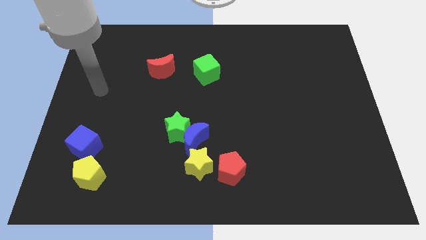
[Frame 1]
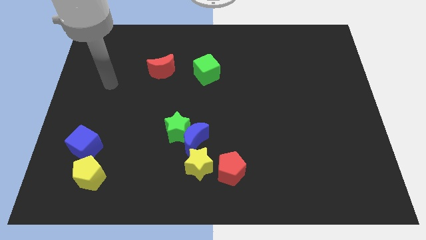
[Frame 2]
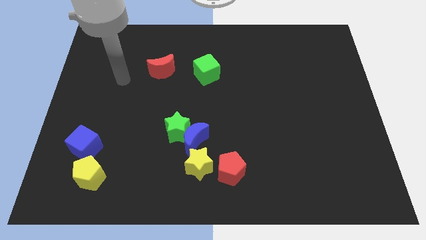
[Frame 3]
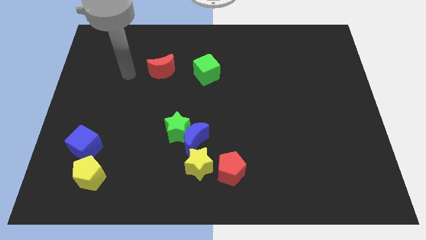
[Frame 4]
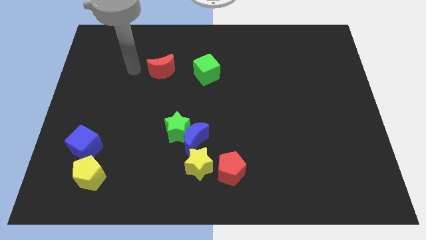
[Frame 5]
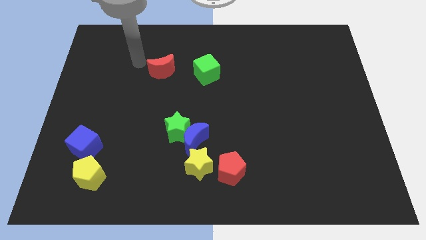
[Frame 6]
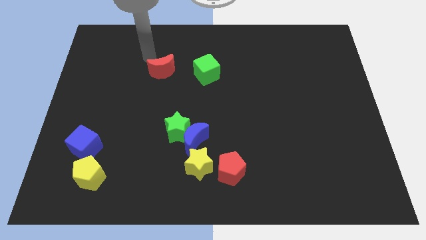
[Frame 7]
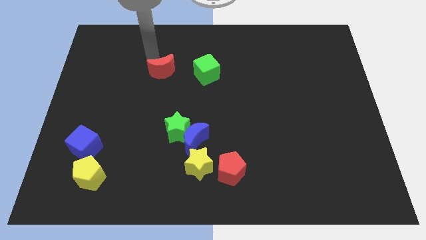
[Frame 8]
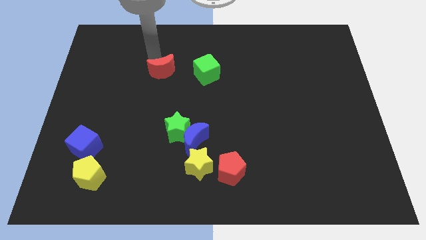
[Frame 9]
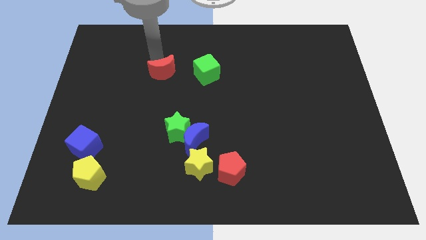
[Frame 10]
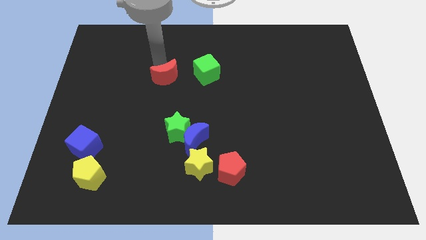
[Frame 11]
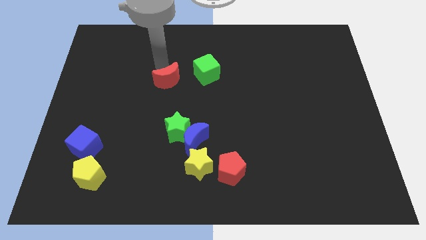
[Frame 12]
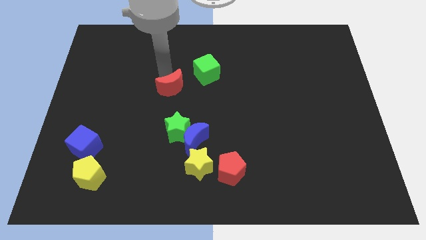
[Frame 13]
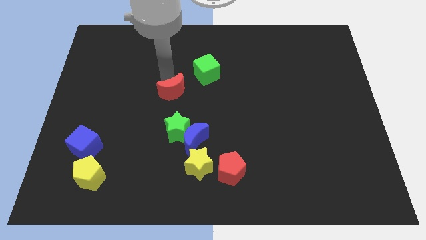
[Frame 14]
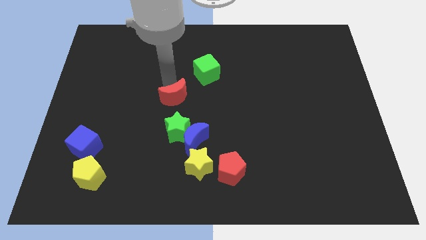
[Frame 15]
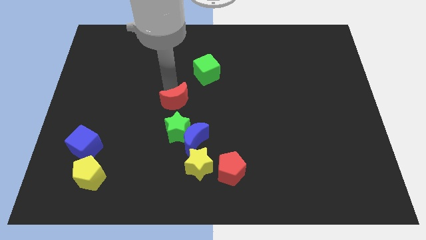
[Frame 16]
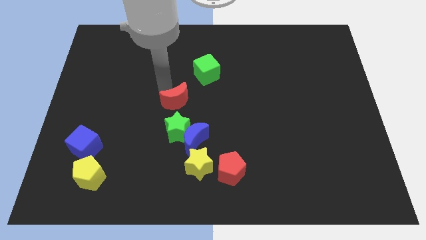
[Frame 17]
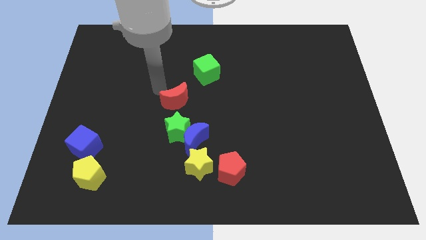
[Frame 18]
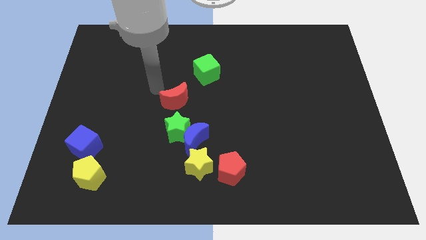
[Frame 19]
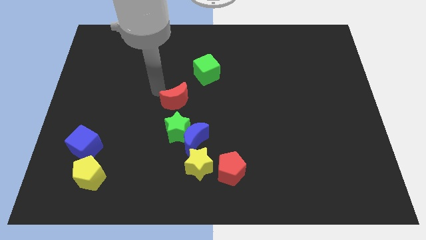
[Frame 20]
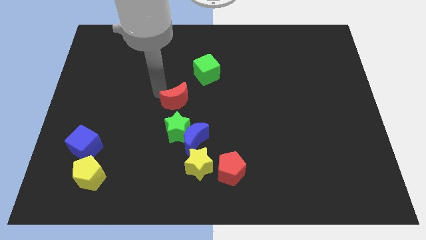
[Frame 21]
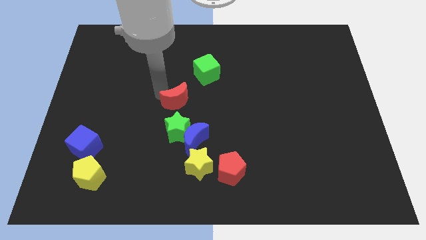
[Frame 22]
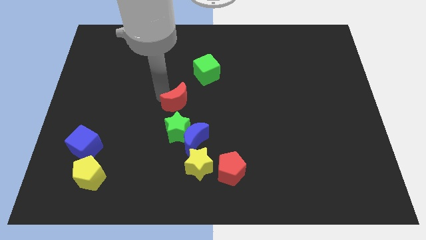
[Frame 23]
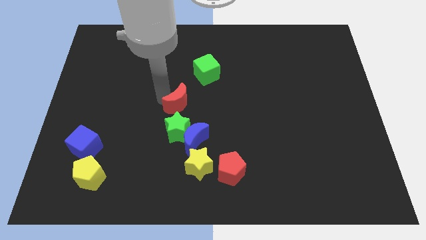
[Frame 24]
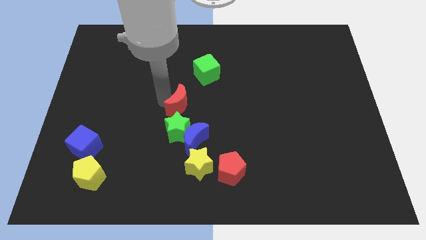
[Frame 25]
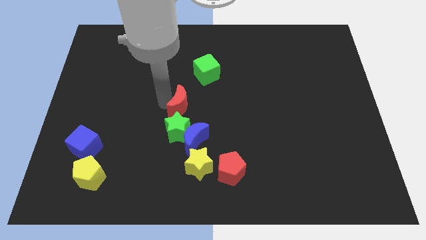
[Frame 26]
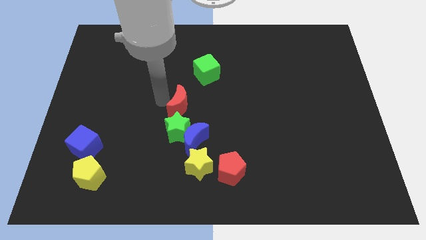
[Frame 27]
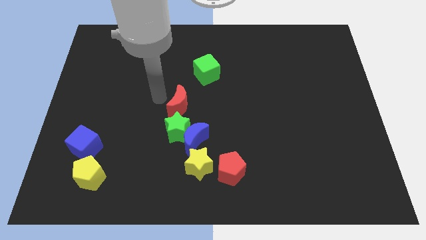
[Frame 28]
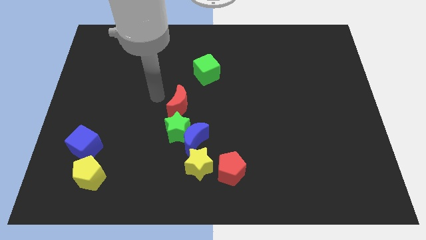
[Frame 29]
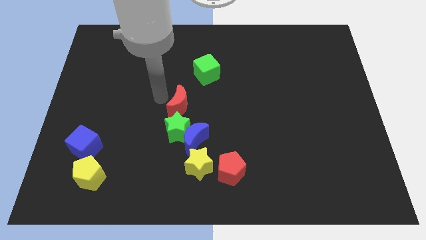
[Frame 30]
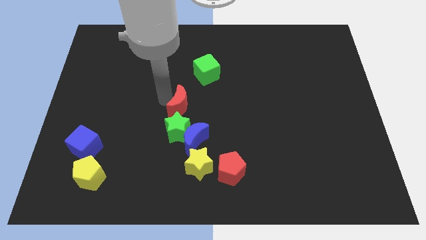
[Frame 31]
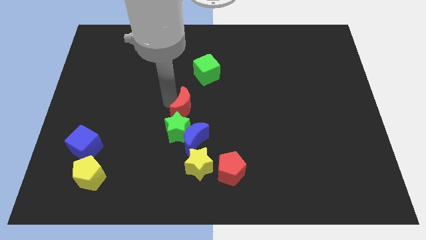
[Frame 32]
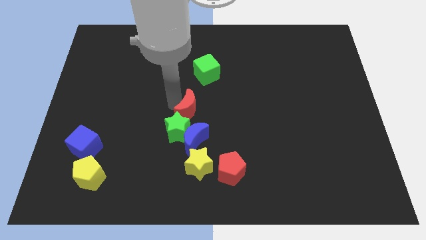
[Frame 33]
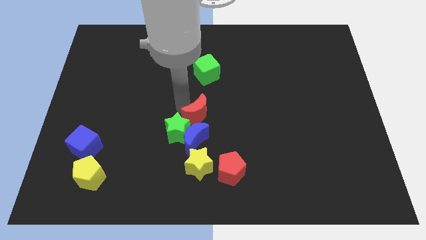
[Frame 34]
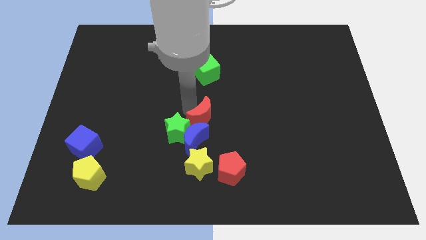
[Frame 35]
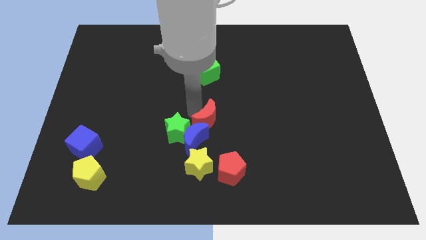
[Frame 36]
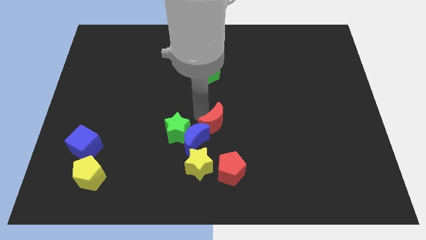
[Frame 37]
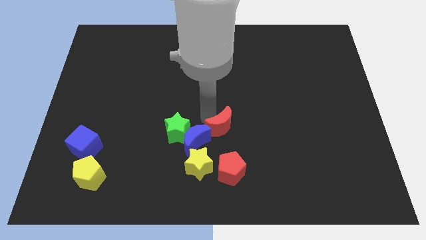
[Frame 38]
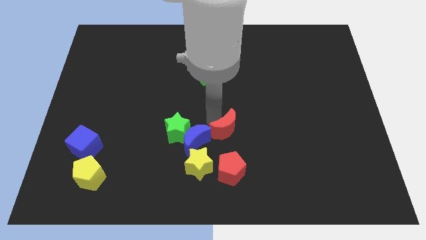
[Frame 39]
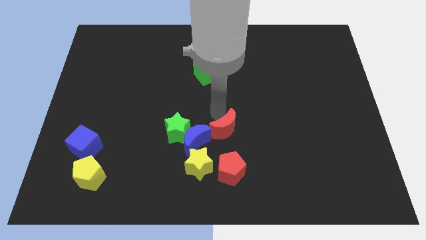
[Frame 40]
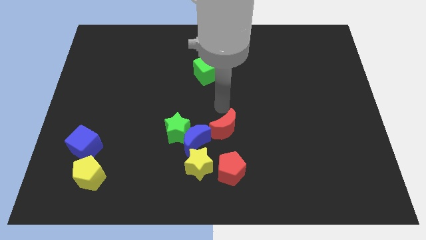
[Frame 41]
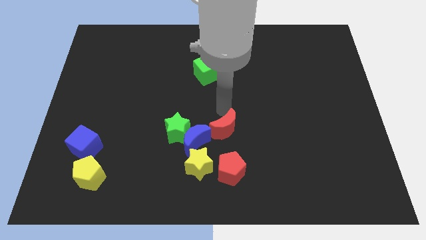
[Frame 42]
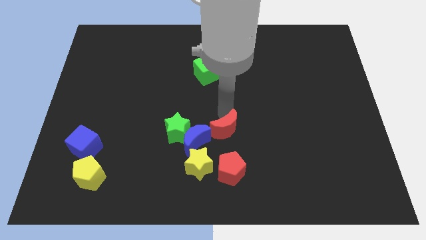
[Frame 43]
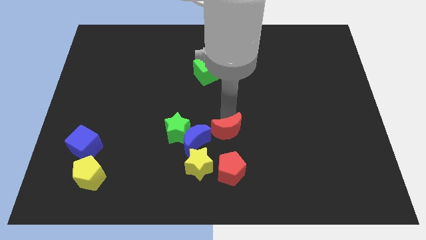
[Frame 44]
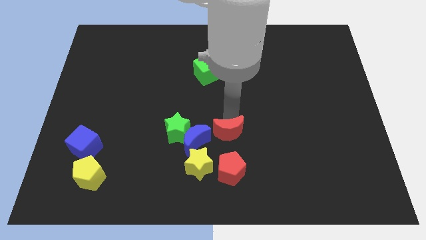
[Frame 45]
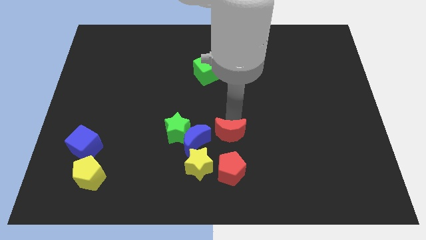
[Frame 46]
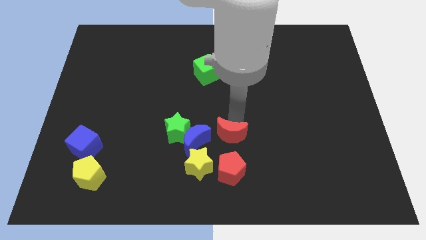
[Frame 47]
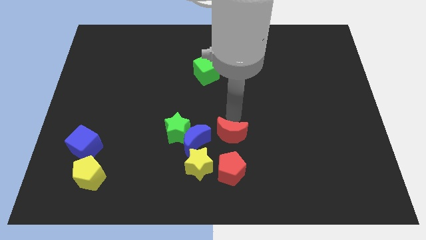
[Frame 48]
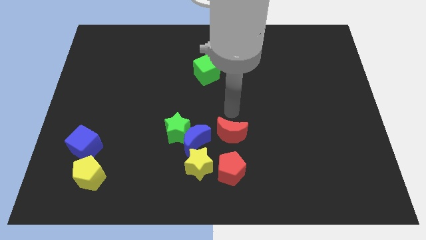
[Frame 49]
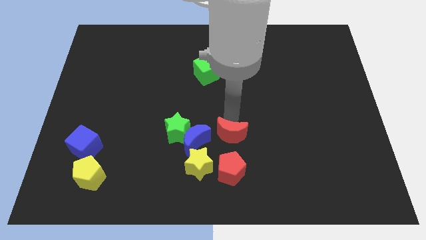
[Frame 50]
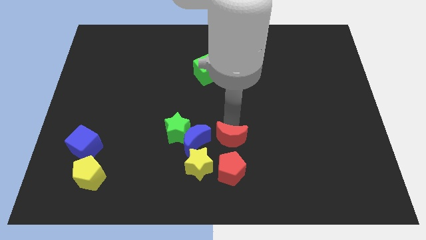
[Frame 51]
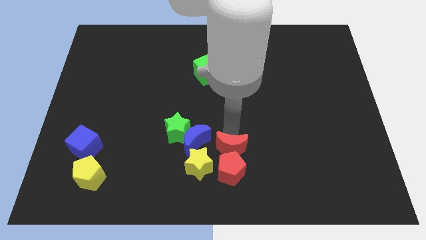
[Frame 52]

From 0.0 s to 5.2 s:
push the red moon close to the red pentagon

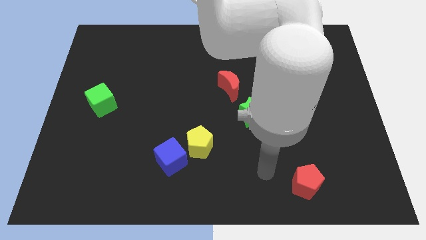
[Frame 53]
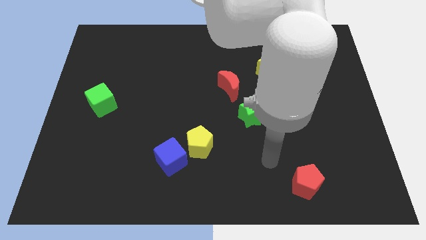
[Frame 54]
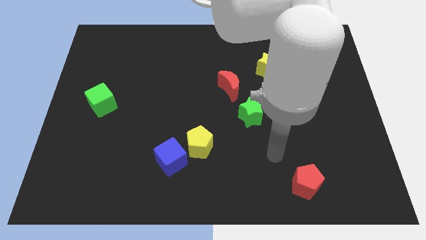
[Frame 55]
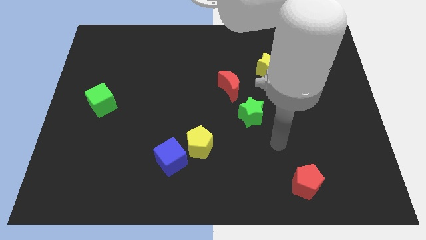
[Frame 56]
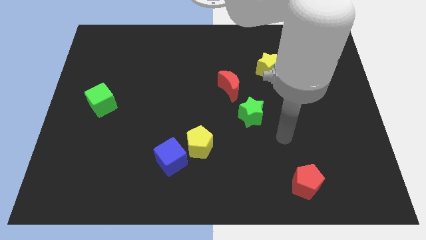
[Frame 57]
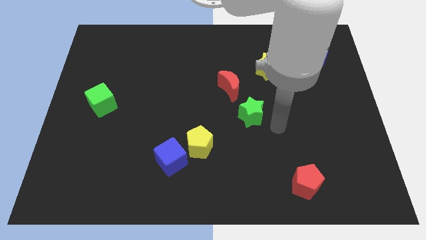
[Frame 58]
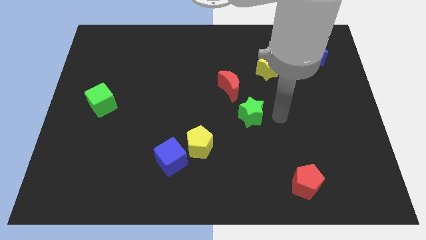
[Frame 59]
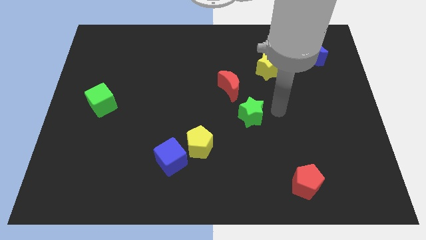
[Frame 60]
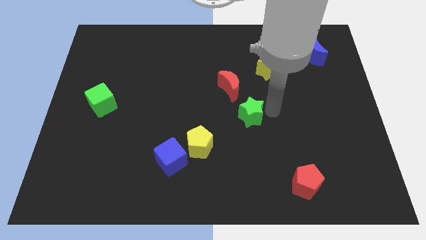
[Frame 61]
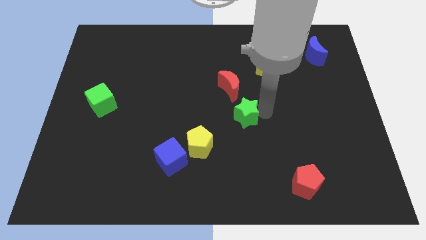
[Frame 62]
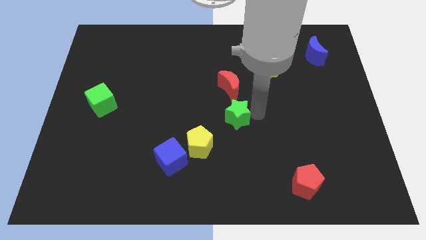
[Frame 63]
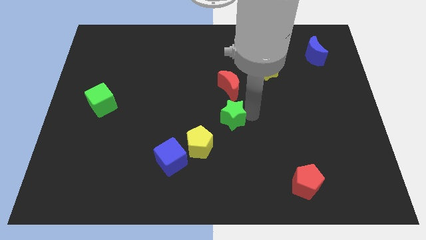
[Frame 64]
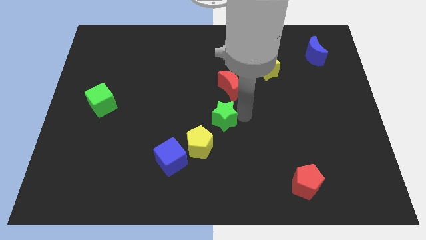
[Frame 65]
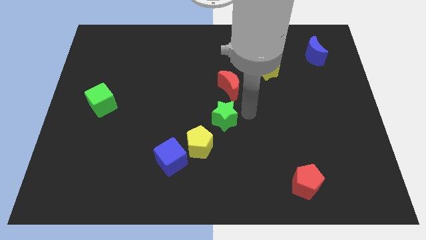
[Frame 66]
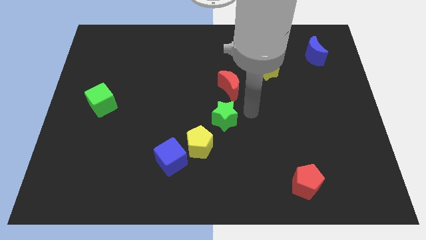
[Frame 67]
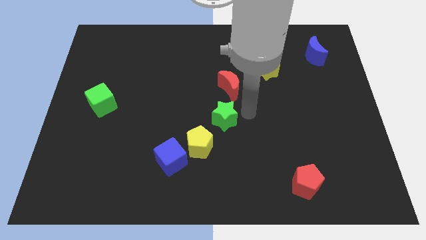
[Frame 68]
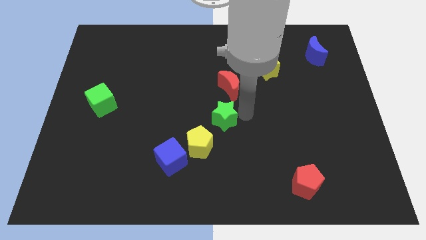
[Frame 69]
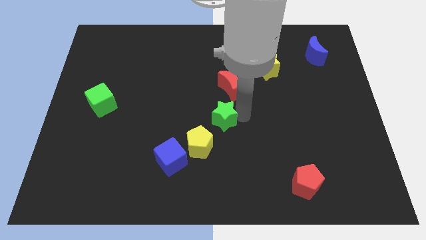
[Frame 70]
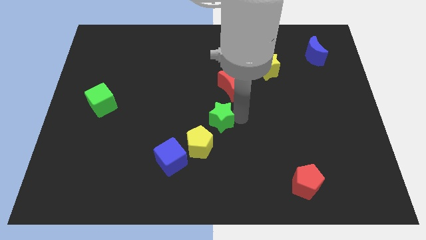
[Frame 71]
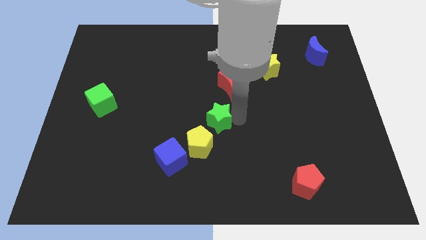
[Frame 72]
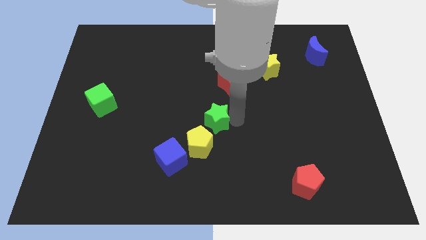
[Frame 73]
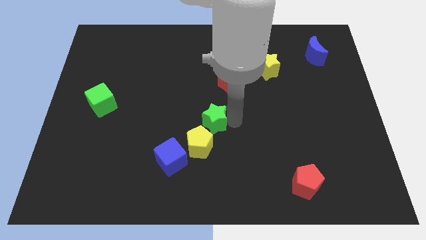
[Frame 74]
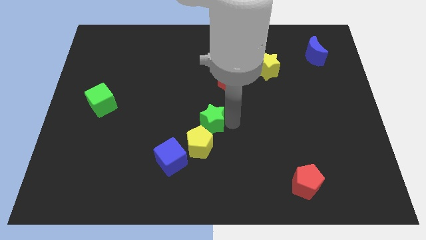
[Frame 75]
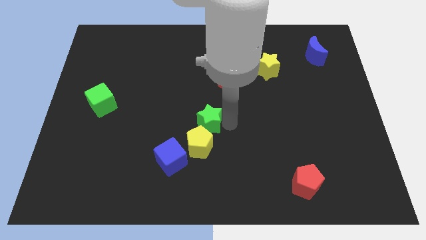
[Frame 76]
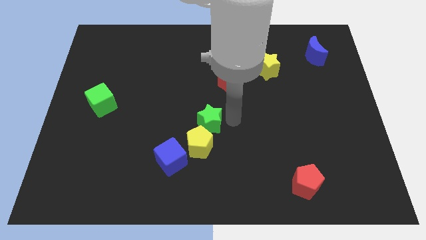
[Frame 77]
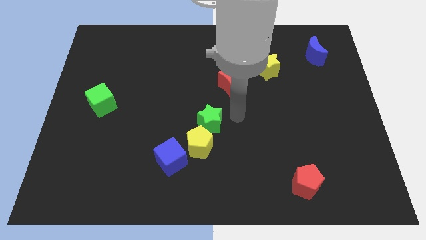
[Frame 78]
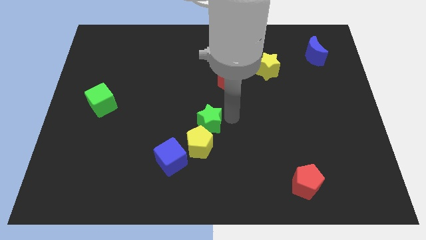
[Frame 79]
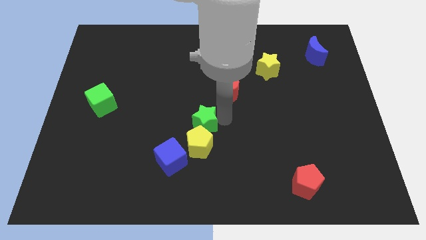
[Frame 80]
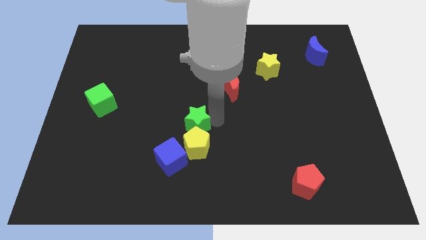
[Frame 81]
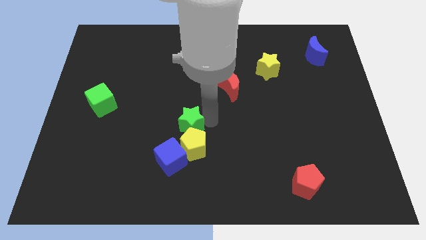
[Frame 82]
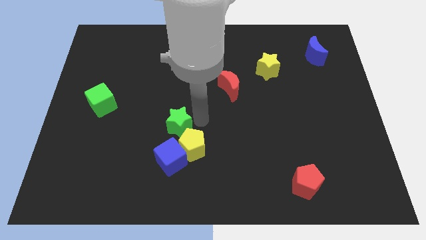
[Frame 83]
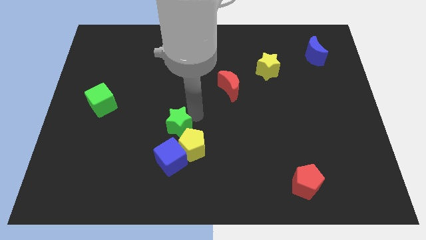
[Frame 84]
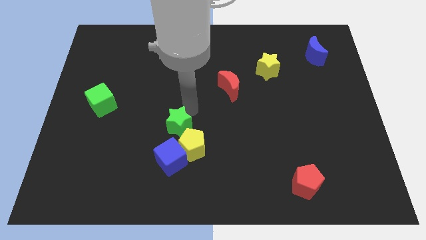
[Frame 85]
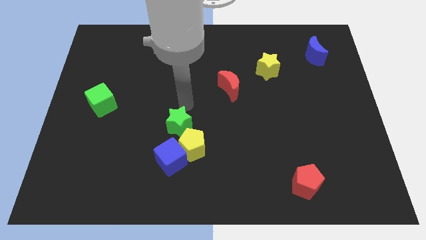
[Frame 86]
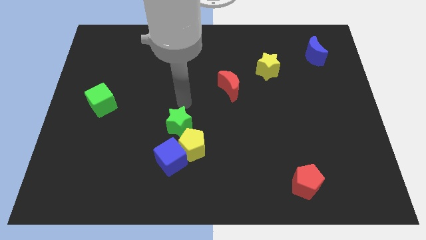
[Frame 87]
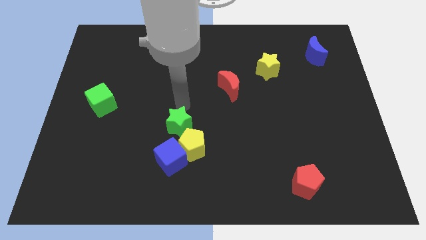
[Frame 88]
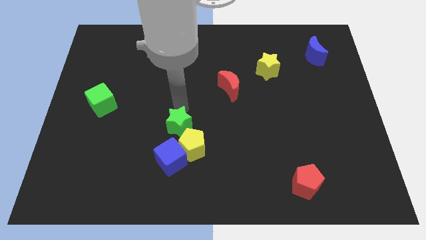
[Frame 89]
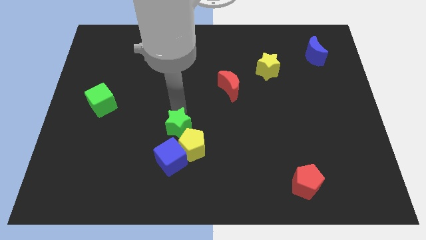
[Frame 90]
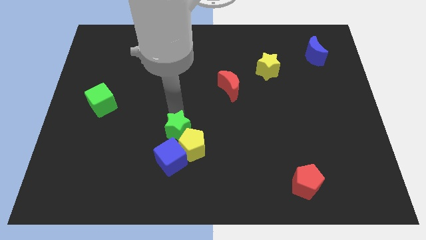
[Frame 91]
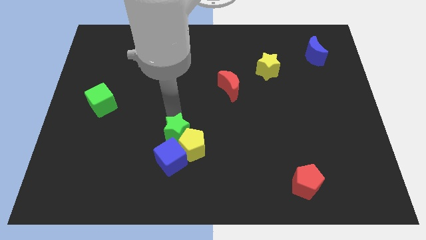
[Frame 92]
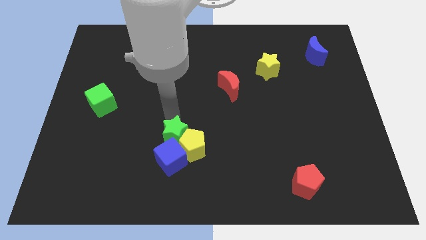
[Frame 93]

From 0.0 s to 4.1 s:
move the green star next to the blue cube
